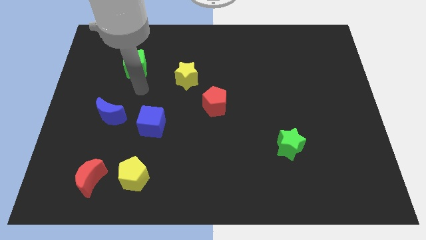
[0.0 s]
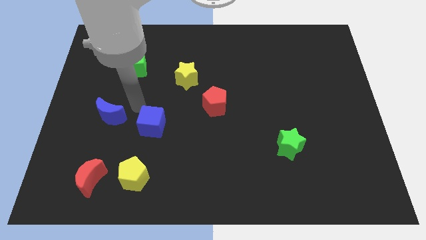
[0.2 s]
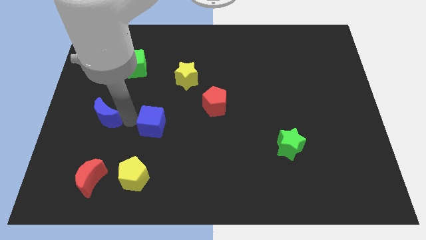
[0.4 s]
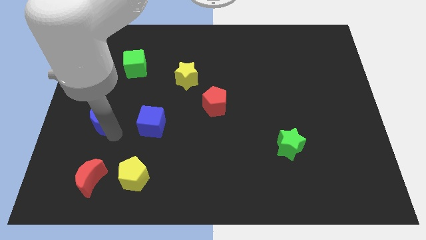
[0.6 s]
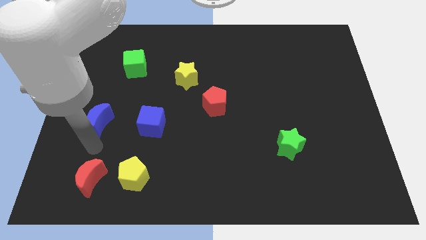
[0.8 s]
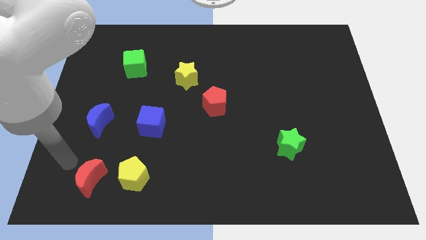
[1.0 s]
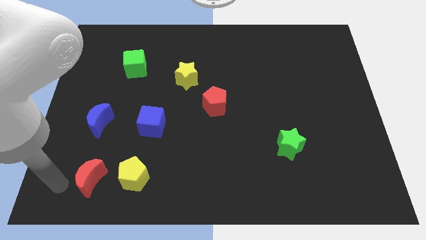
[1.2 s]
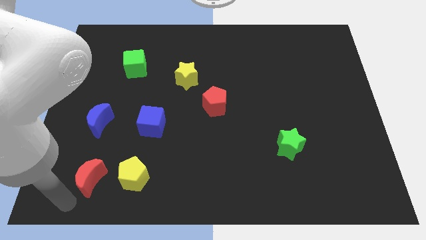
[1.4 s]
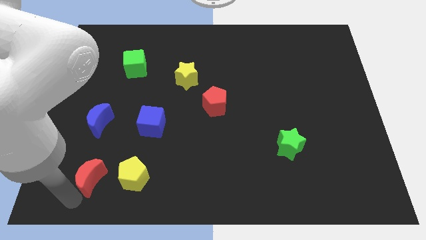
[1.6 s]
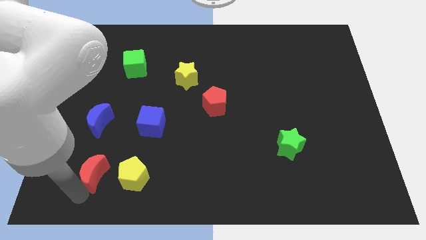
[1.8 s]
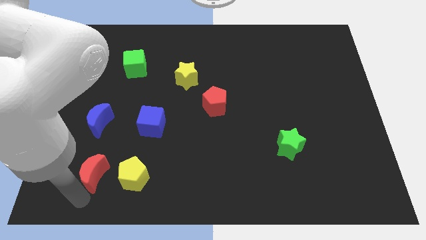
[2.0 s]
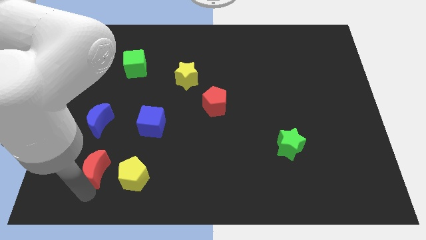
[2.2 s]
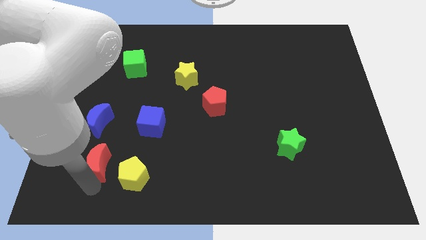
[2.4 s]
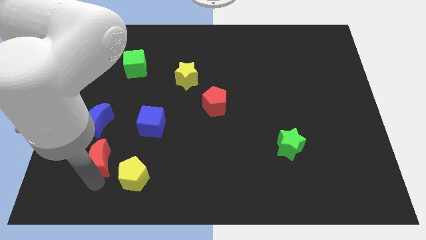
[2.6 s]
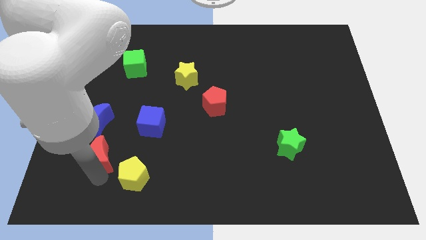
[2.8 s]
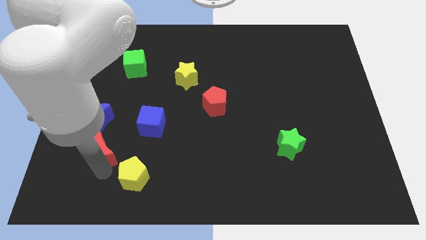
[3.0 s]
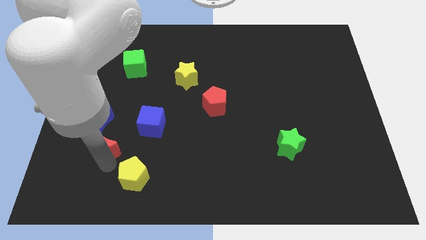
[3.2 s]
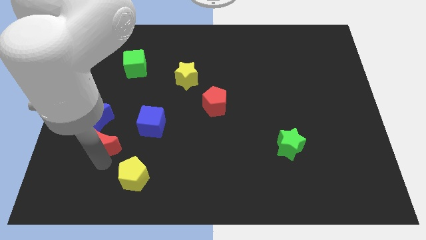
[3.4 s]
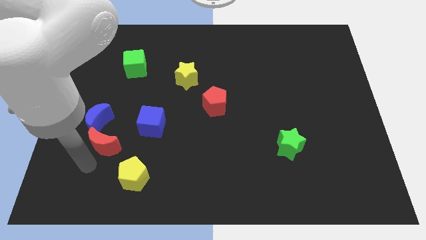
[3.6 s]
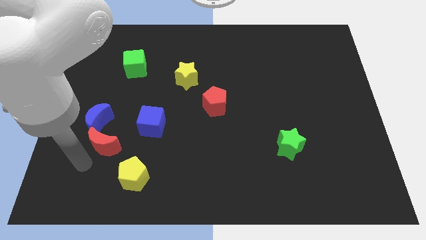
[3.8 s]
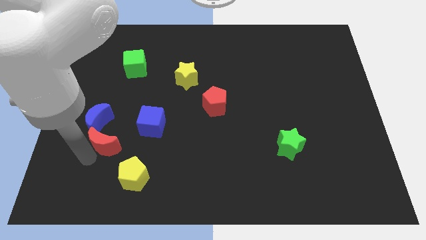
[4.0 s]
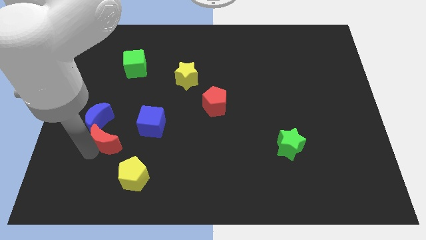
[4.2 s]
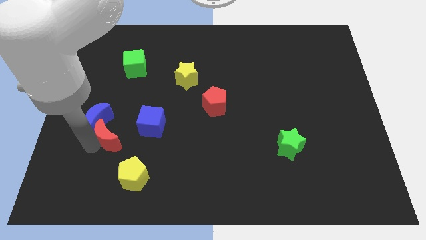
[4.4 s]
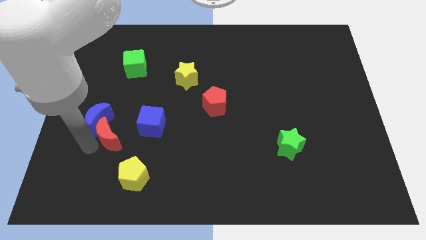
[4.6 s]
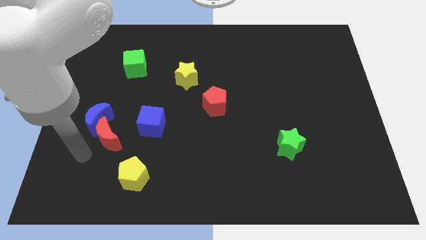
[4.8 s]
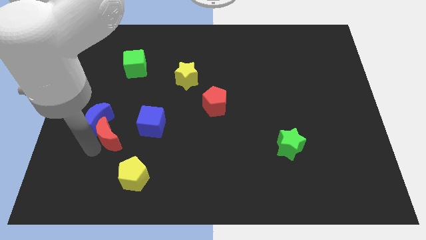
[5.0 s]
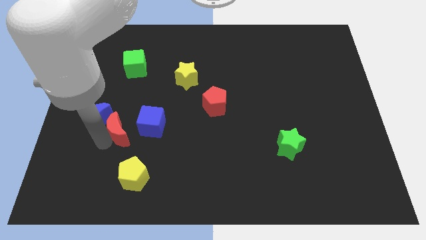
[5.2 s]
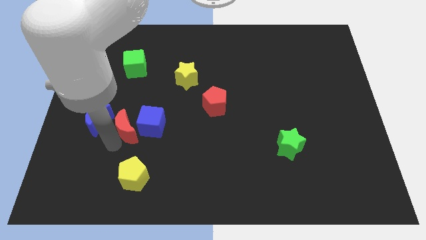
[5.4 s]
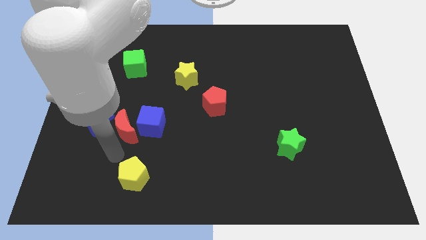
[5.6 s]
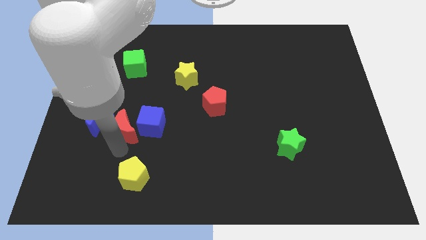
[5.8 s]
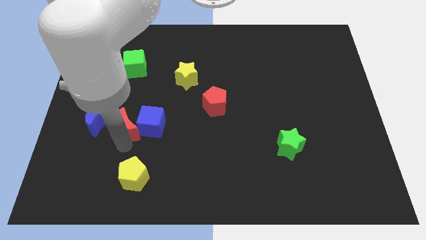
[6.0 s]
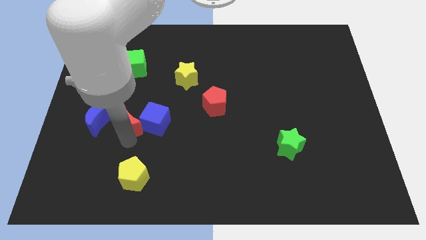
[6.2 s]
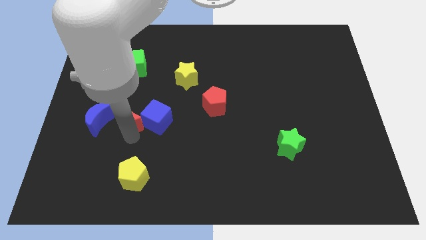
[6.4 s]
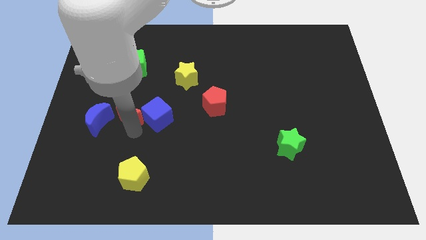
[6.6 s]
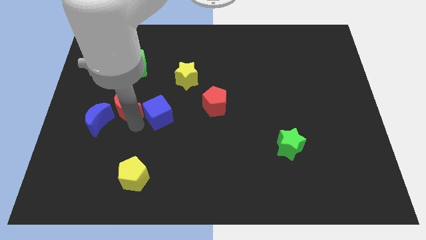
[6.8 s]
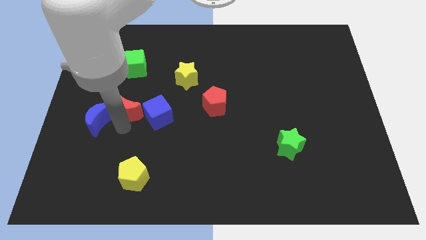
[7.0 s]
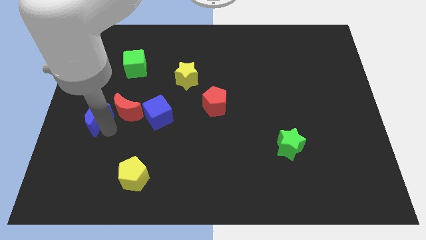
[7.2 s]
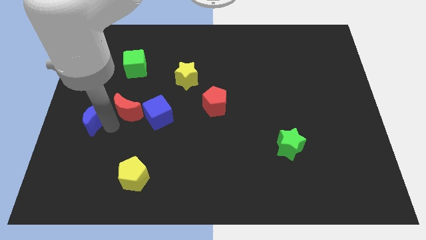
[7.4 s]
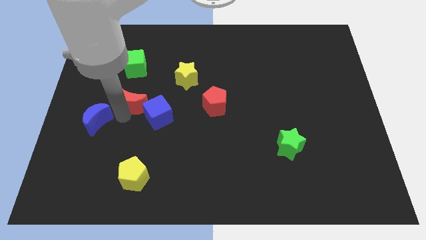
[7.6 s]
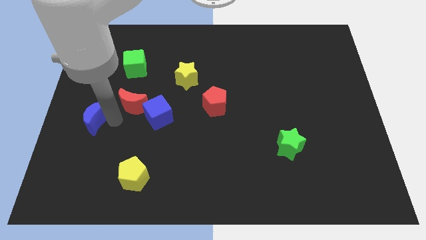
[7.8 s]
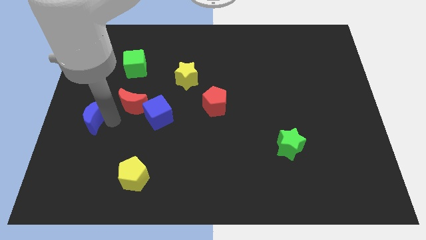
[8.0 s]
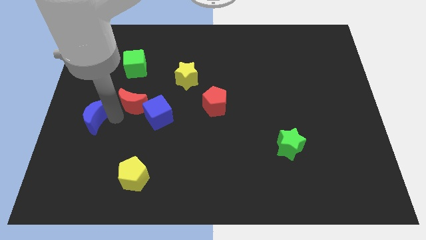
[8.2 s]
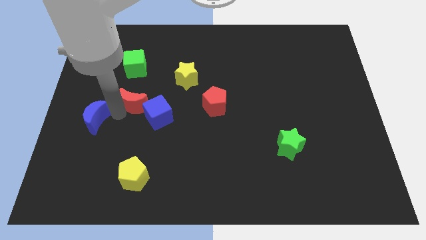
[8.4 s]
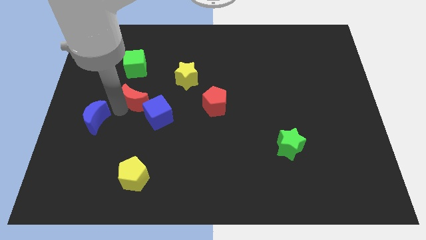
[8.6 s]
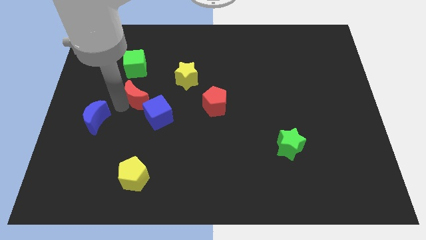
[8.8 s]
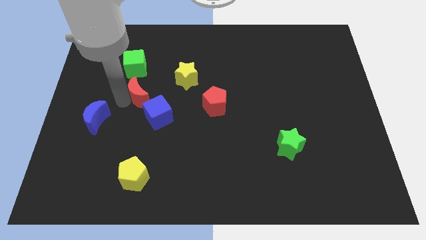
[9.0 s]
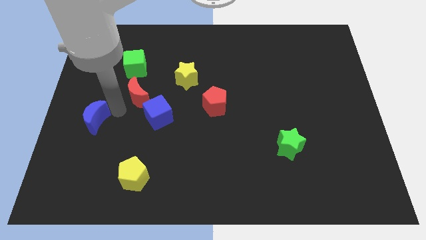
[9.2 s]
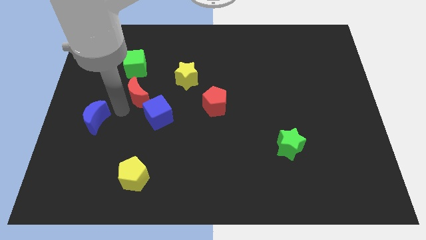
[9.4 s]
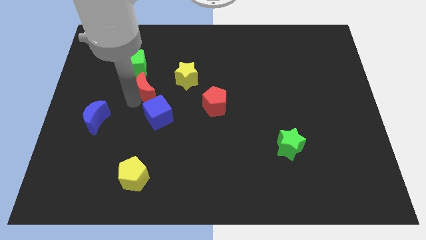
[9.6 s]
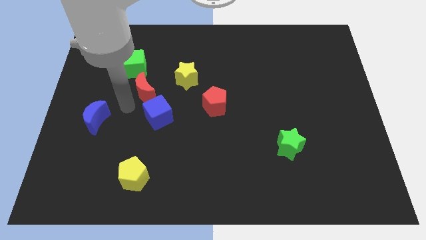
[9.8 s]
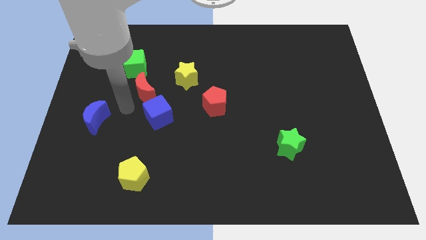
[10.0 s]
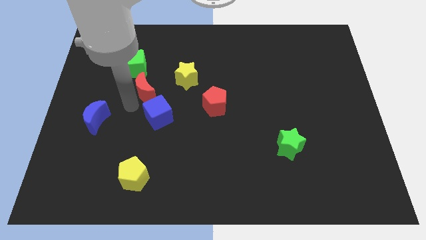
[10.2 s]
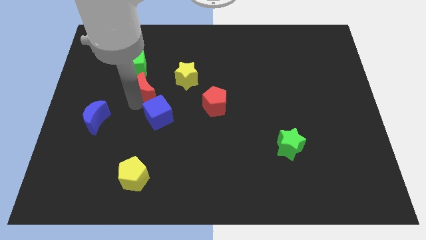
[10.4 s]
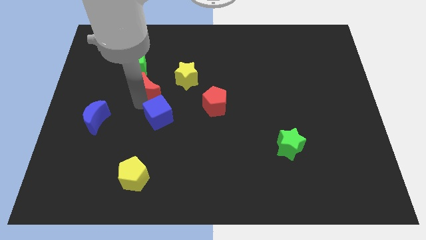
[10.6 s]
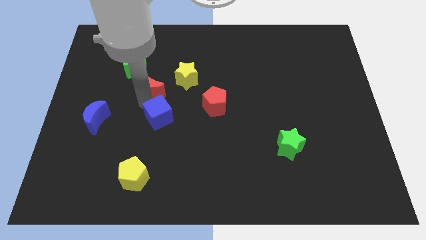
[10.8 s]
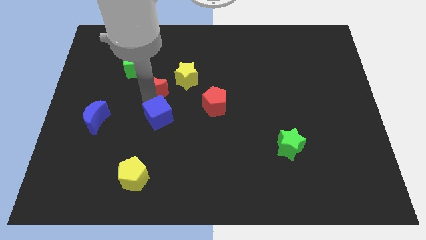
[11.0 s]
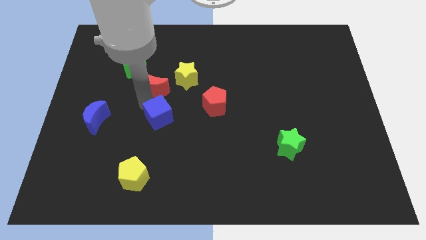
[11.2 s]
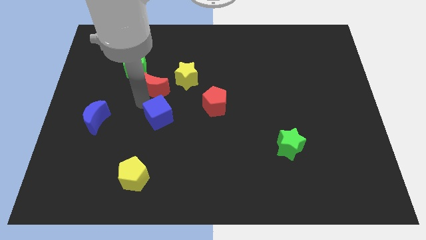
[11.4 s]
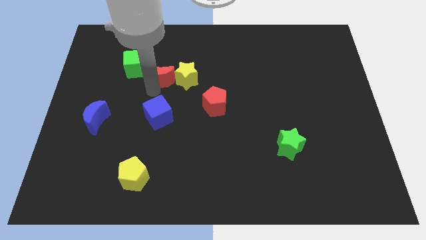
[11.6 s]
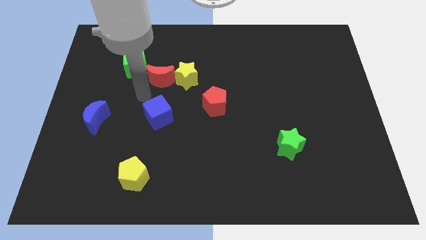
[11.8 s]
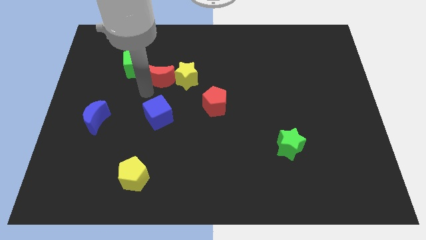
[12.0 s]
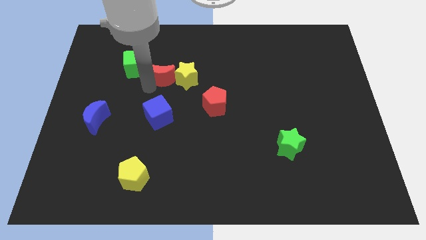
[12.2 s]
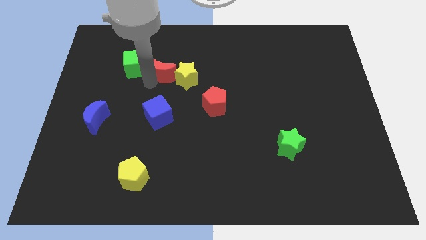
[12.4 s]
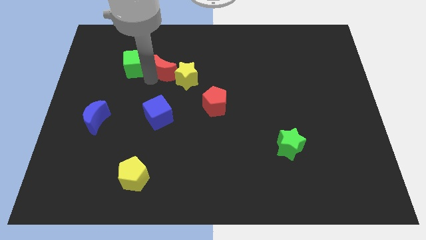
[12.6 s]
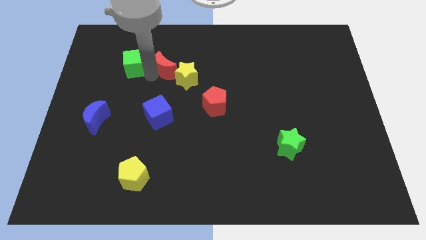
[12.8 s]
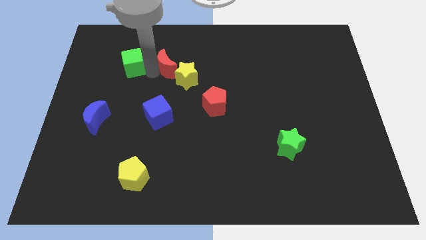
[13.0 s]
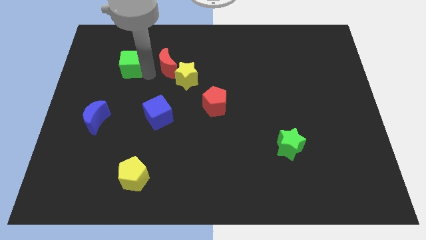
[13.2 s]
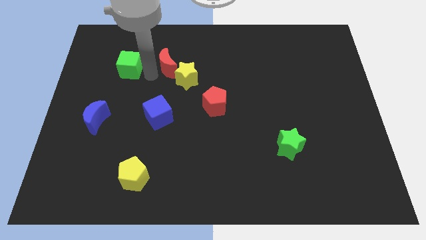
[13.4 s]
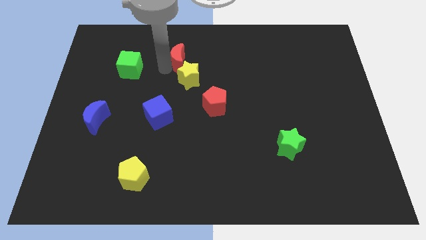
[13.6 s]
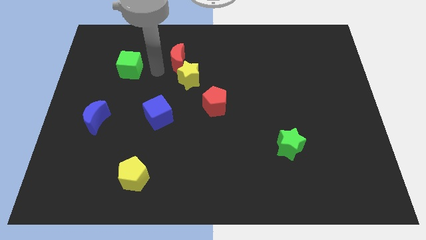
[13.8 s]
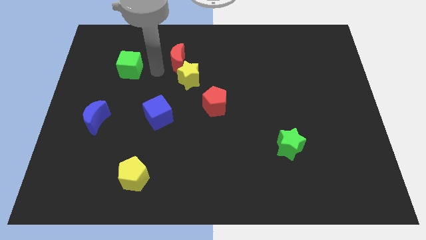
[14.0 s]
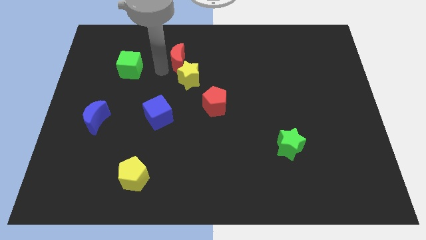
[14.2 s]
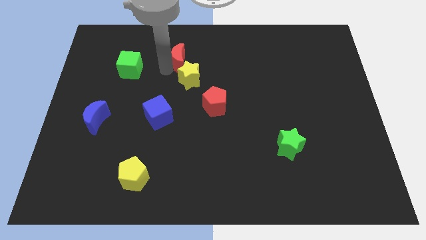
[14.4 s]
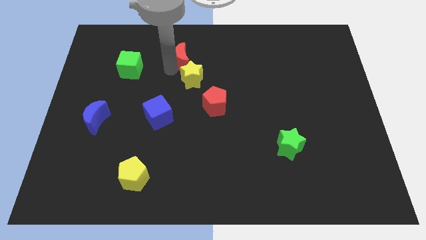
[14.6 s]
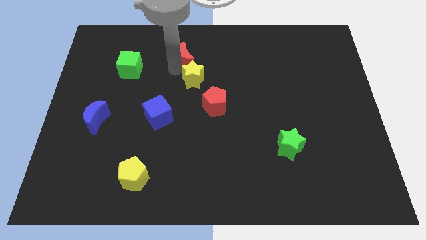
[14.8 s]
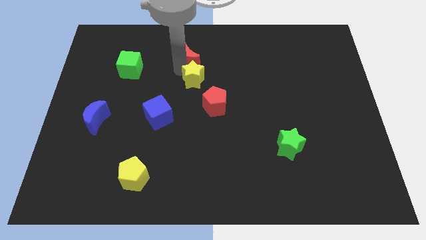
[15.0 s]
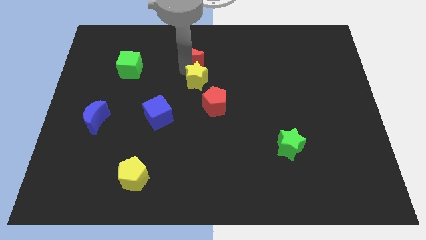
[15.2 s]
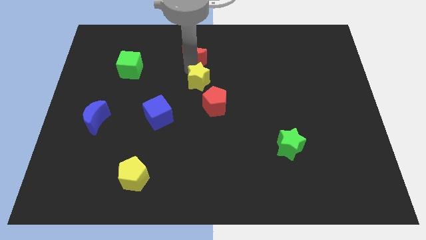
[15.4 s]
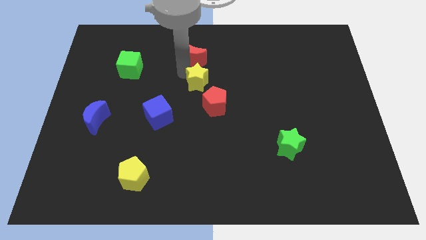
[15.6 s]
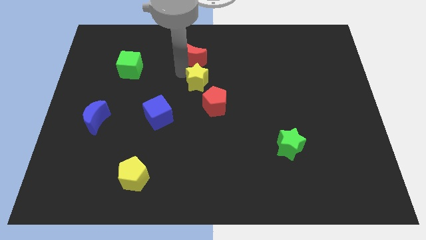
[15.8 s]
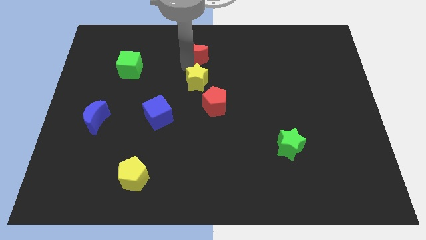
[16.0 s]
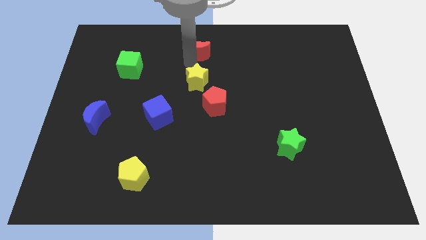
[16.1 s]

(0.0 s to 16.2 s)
put the red moon to the towards your base
